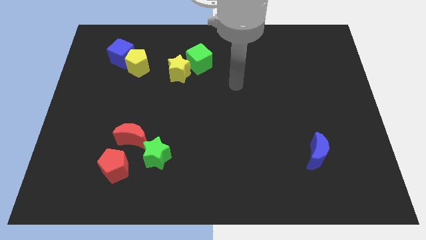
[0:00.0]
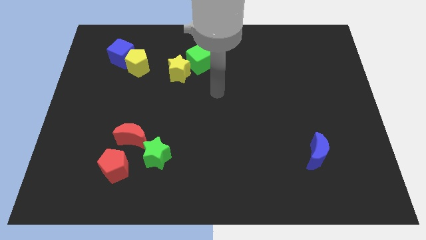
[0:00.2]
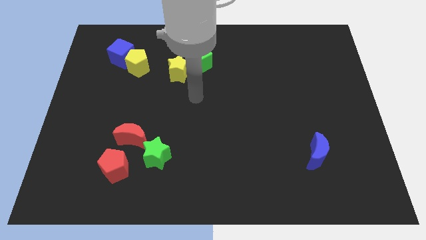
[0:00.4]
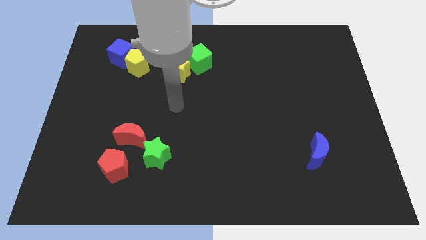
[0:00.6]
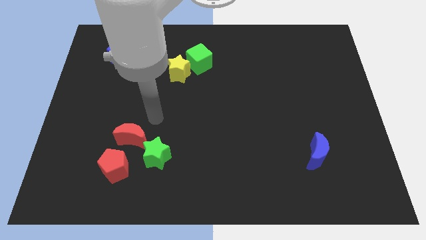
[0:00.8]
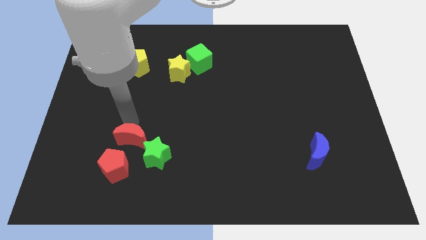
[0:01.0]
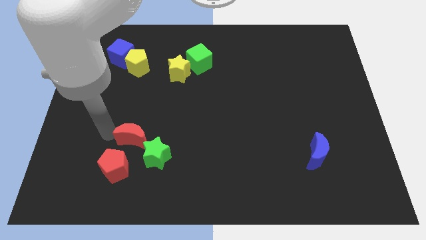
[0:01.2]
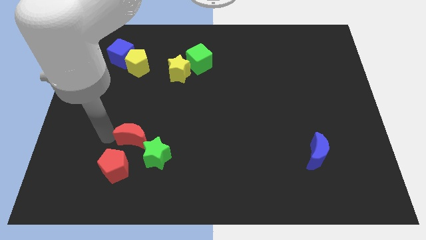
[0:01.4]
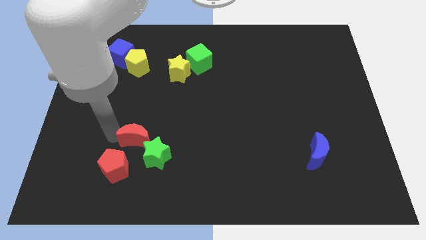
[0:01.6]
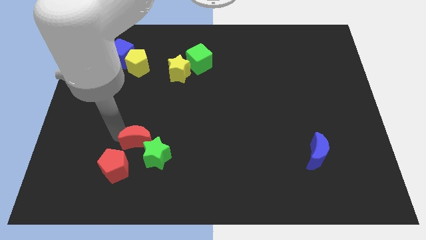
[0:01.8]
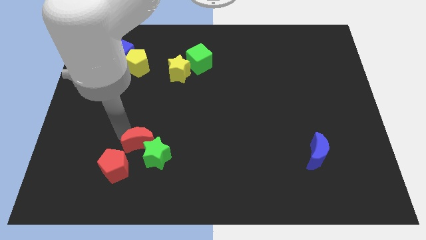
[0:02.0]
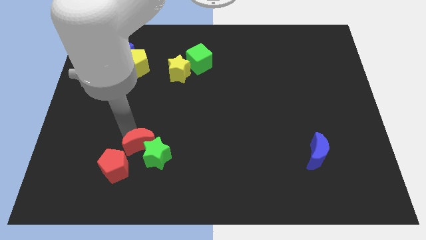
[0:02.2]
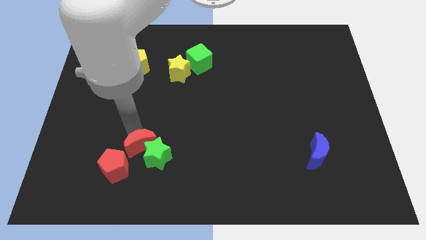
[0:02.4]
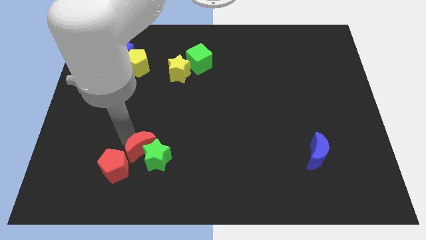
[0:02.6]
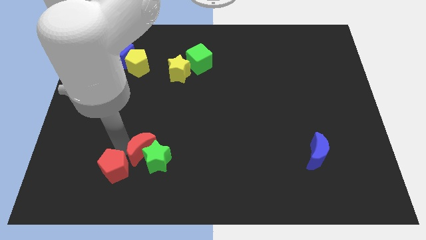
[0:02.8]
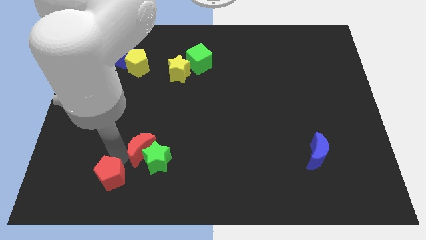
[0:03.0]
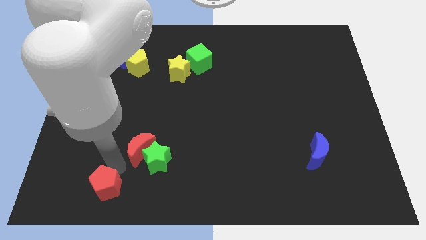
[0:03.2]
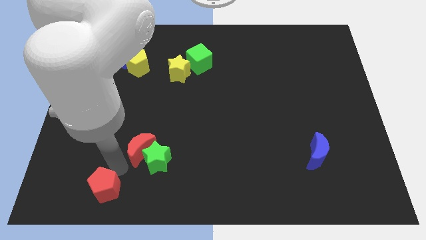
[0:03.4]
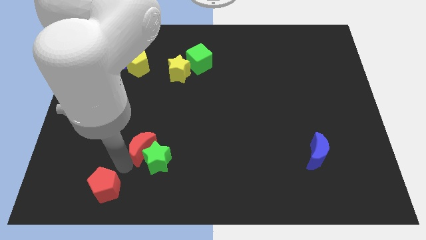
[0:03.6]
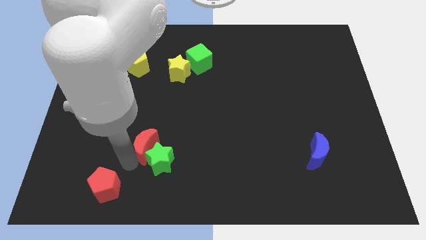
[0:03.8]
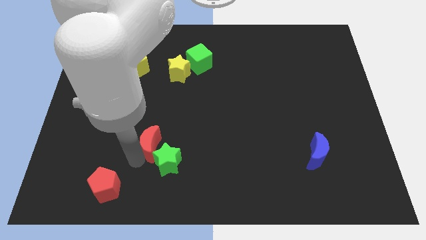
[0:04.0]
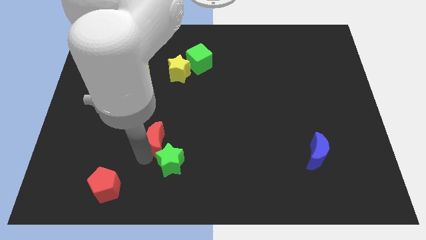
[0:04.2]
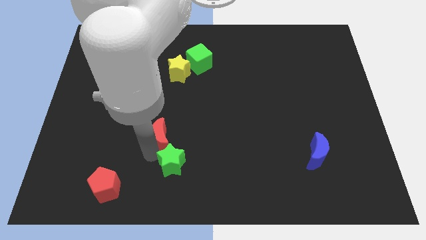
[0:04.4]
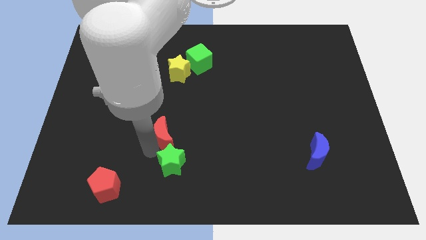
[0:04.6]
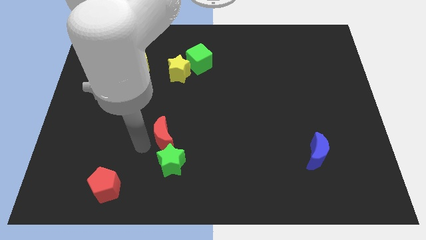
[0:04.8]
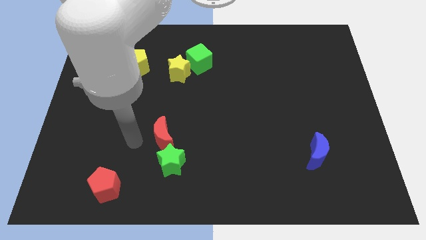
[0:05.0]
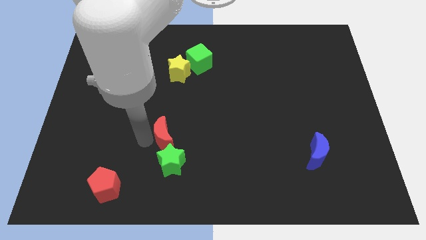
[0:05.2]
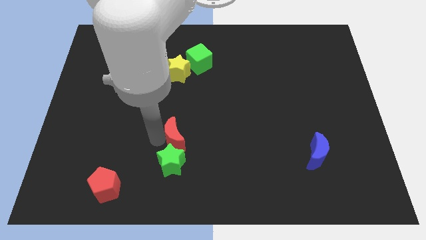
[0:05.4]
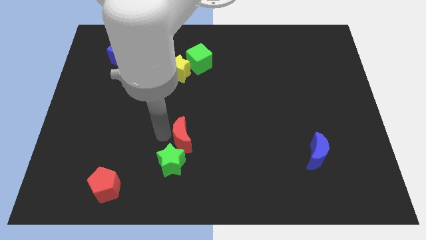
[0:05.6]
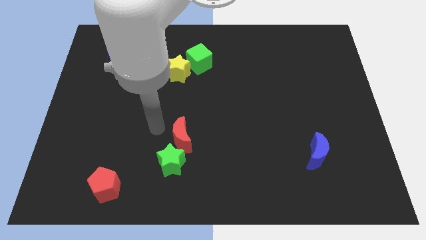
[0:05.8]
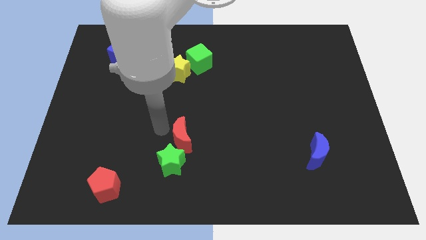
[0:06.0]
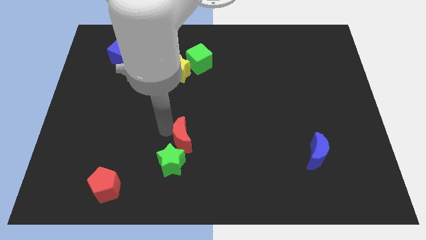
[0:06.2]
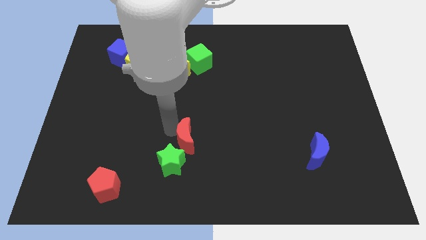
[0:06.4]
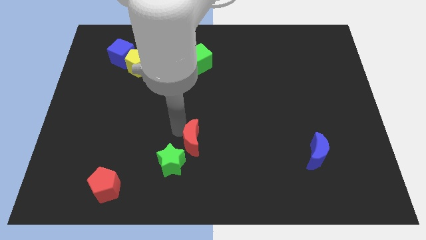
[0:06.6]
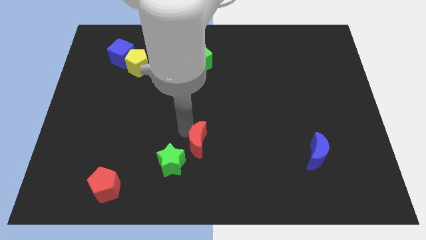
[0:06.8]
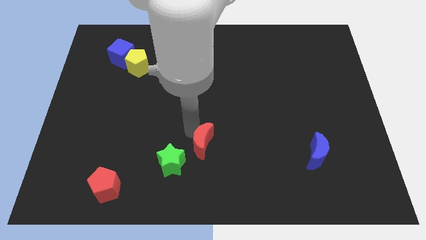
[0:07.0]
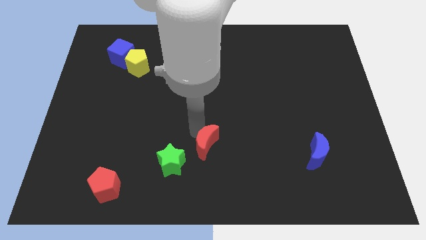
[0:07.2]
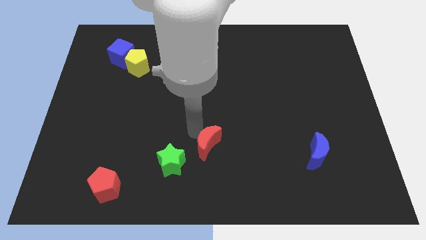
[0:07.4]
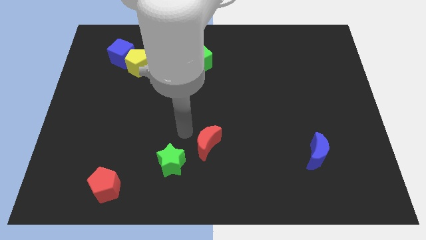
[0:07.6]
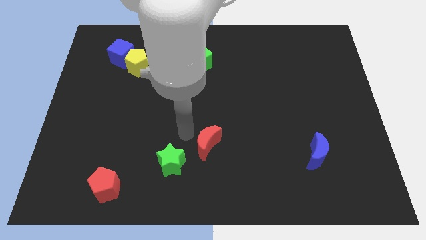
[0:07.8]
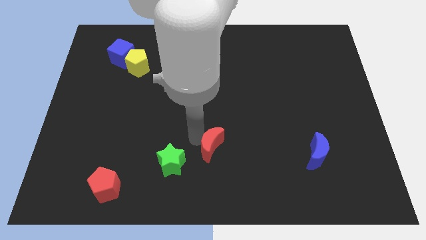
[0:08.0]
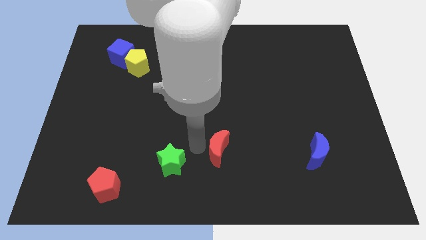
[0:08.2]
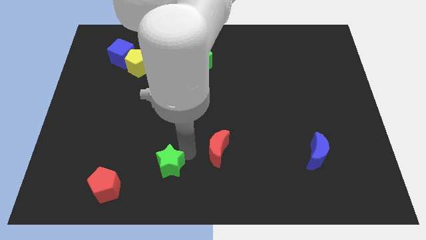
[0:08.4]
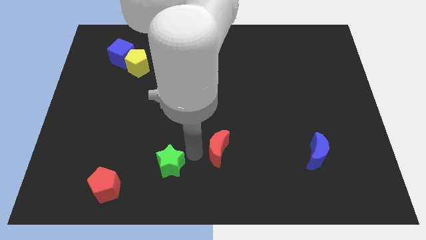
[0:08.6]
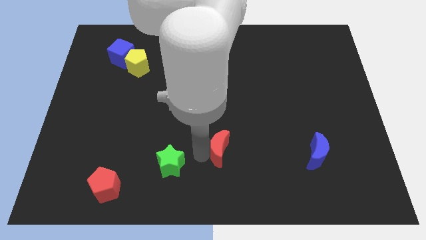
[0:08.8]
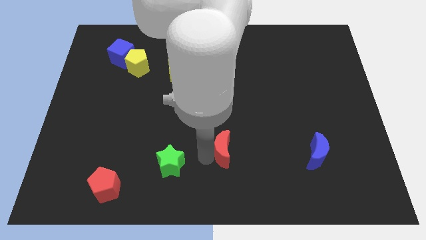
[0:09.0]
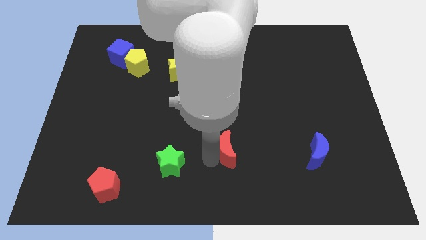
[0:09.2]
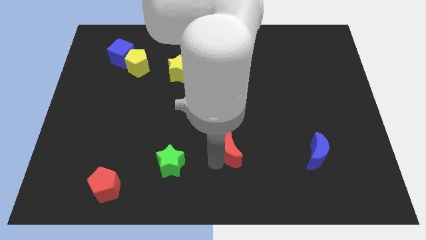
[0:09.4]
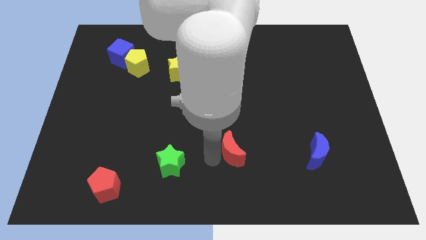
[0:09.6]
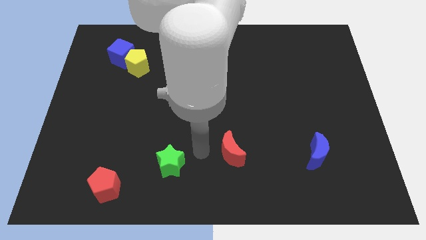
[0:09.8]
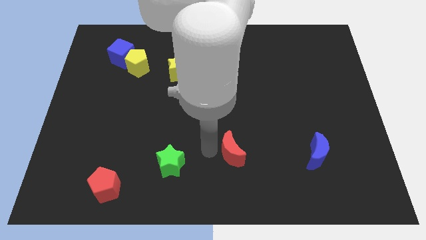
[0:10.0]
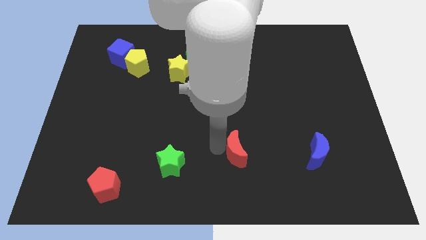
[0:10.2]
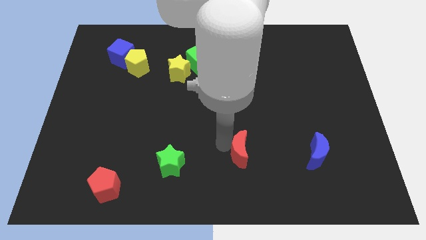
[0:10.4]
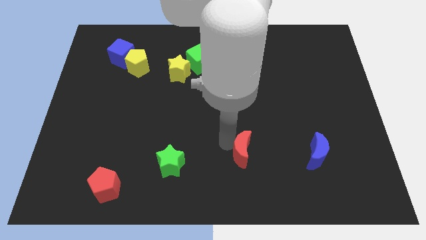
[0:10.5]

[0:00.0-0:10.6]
push the red moon to the left of the blue moon

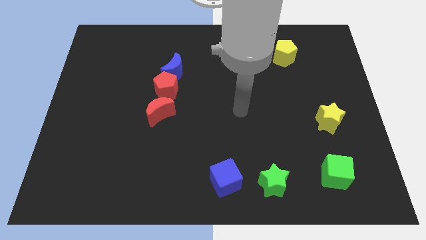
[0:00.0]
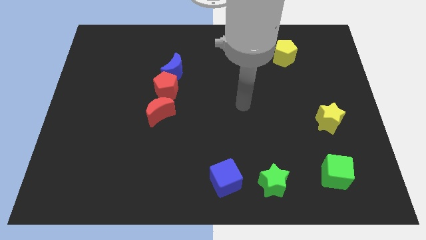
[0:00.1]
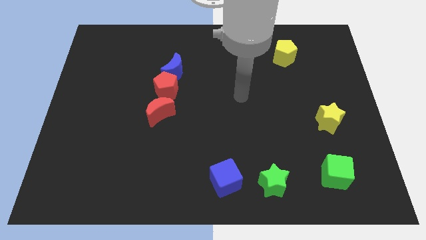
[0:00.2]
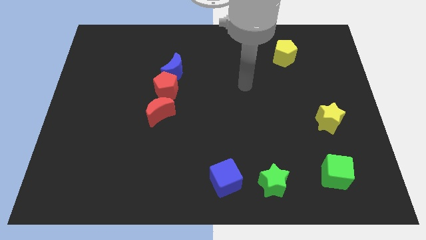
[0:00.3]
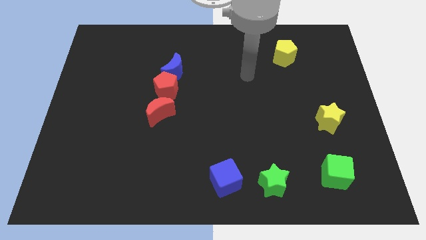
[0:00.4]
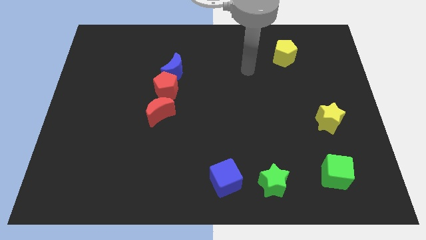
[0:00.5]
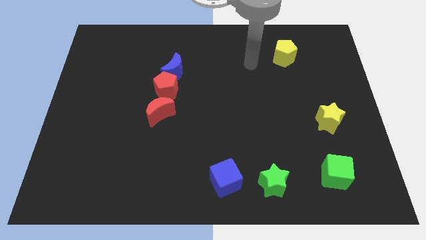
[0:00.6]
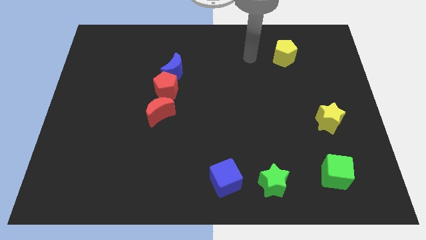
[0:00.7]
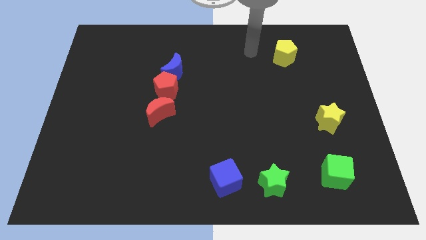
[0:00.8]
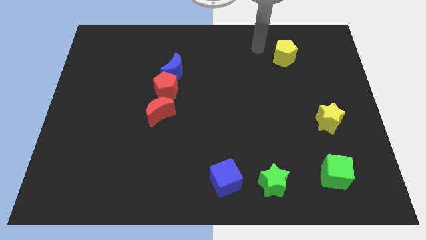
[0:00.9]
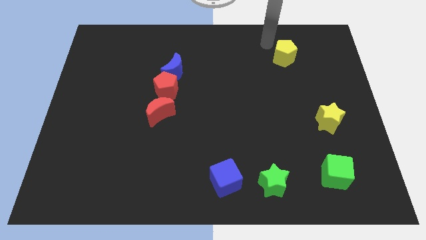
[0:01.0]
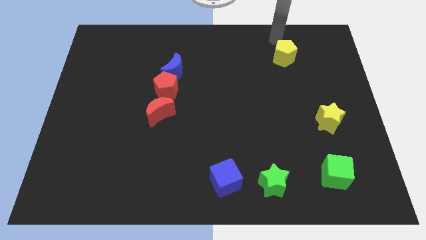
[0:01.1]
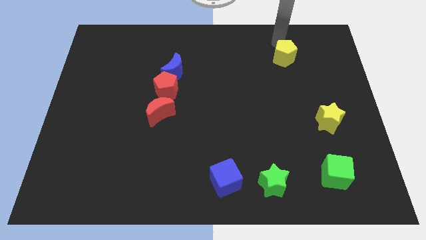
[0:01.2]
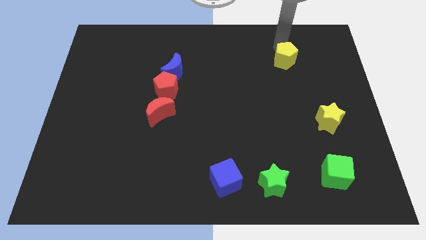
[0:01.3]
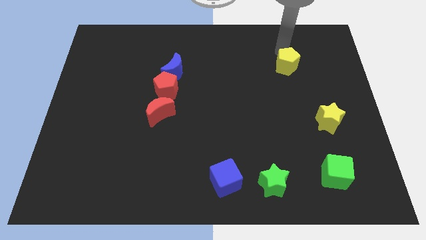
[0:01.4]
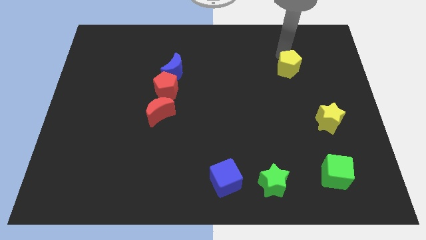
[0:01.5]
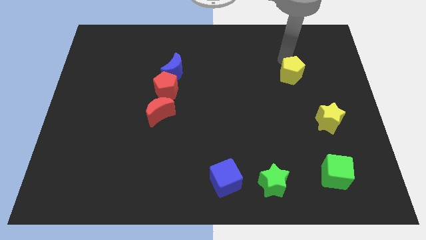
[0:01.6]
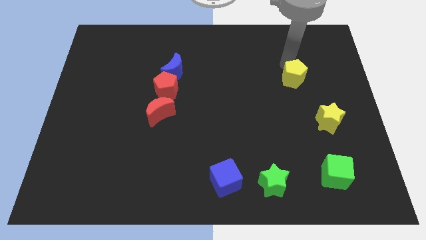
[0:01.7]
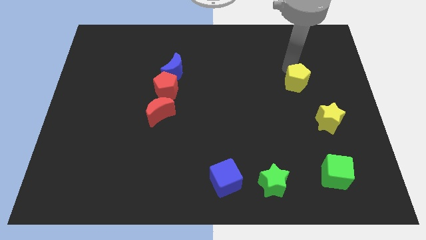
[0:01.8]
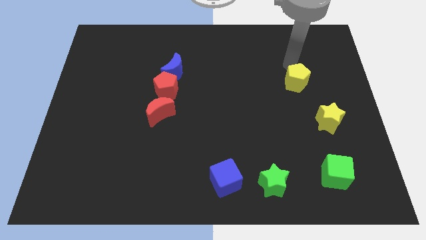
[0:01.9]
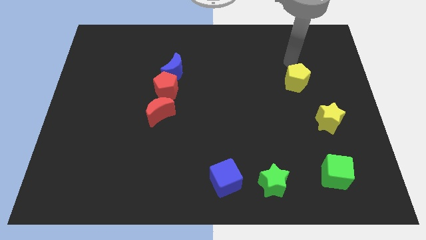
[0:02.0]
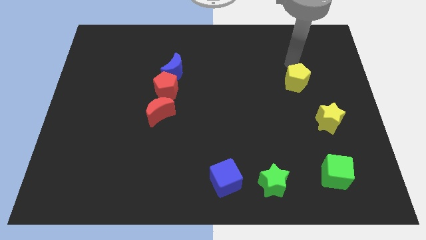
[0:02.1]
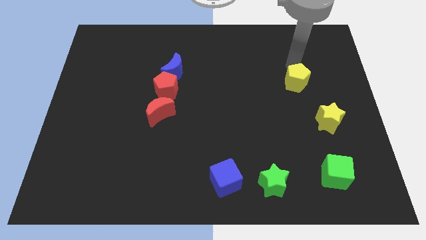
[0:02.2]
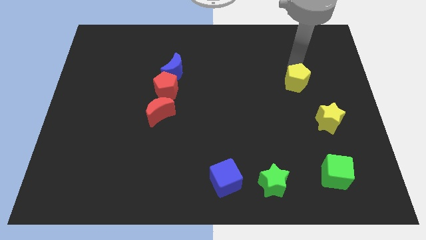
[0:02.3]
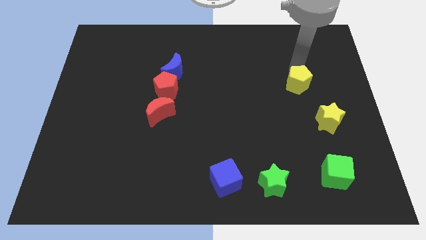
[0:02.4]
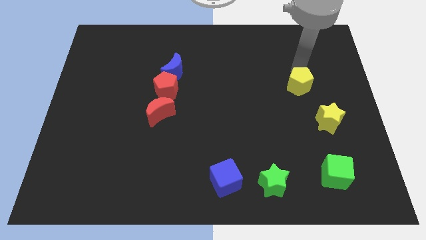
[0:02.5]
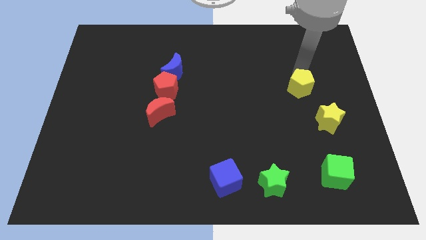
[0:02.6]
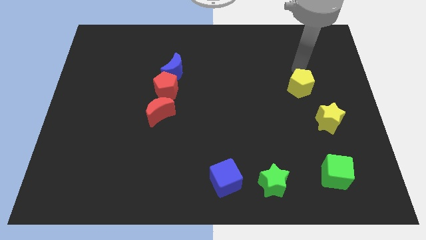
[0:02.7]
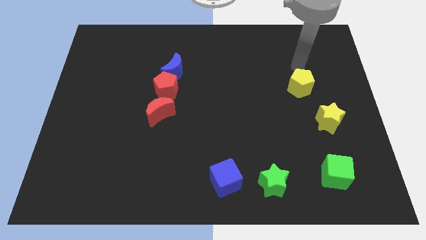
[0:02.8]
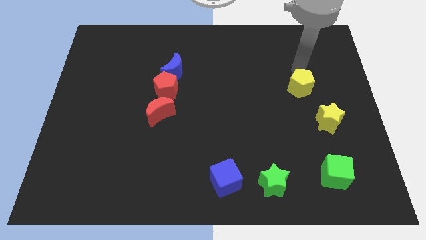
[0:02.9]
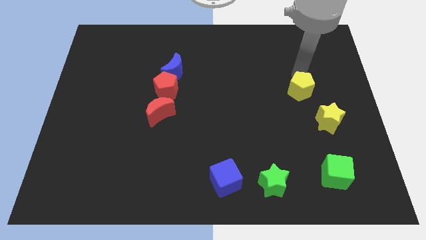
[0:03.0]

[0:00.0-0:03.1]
put the yellow pentagon diagonally up and to the left of the yellow star
